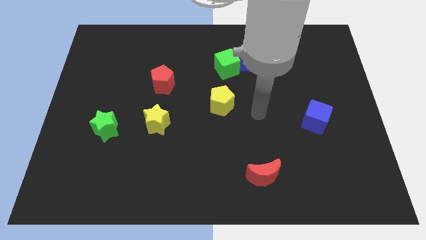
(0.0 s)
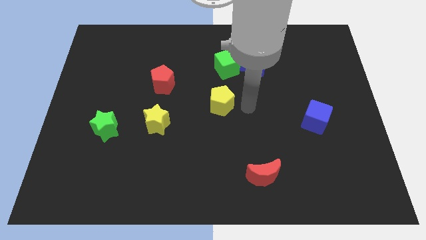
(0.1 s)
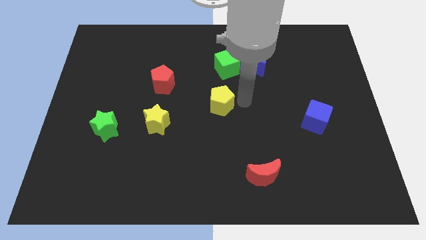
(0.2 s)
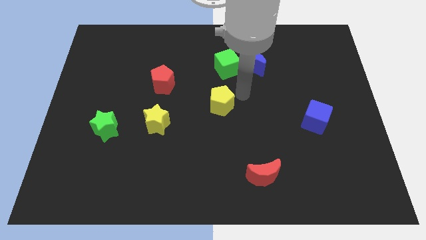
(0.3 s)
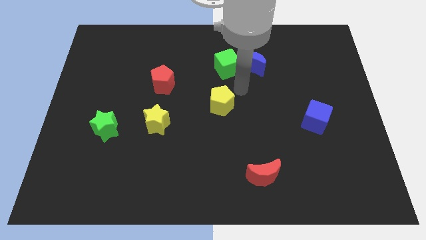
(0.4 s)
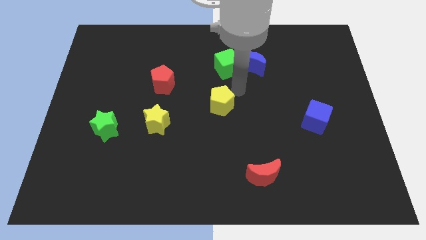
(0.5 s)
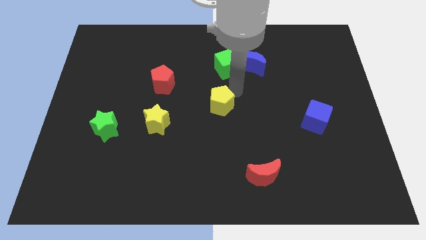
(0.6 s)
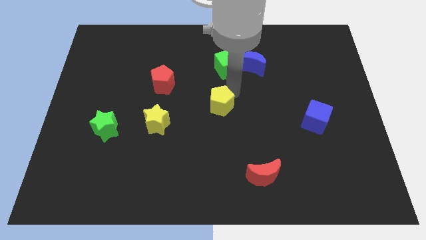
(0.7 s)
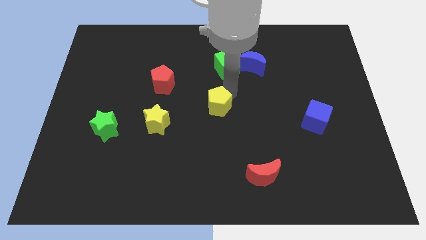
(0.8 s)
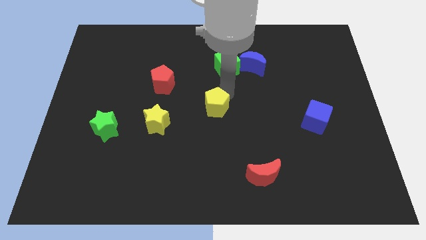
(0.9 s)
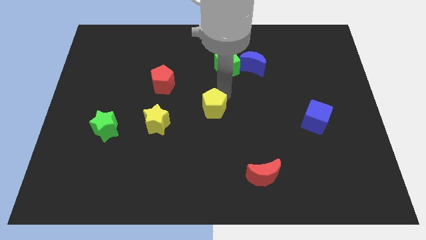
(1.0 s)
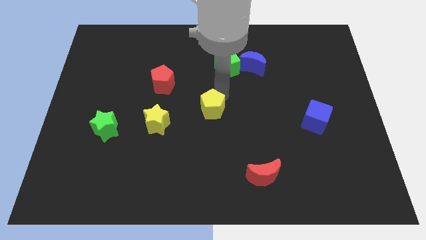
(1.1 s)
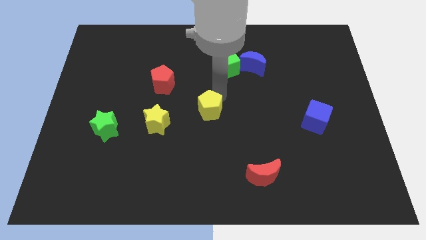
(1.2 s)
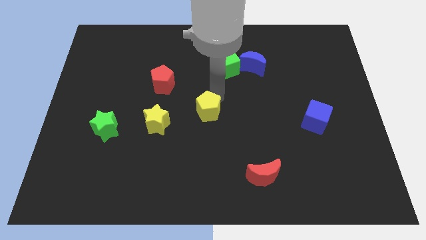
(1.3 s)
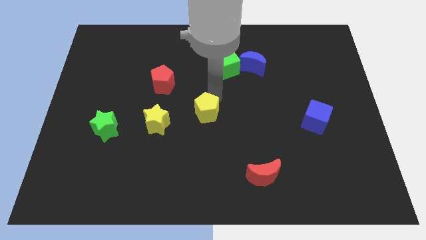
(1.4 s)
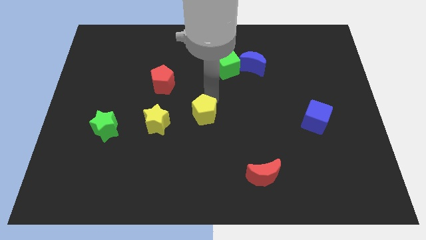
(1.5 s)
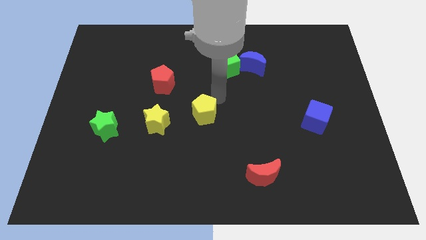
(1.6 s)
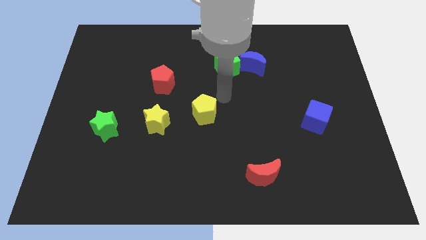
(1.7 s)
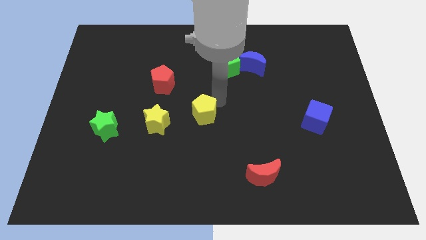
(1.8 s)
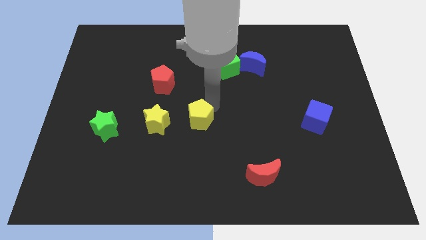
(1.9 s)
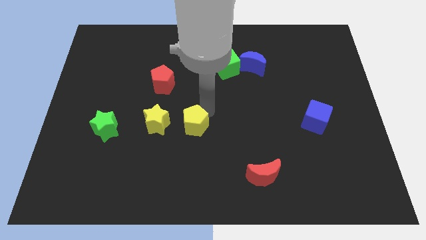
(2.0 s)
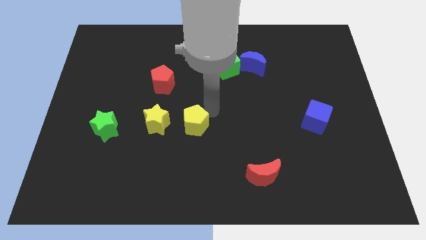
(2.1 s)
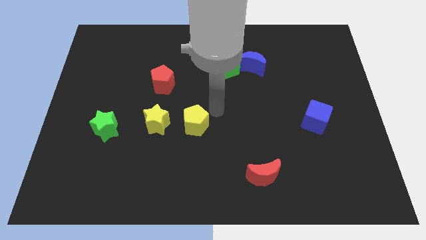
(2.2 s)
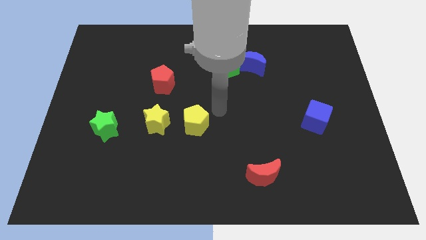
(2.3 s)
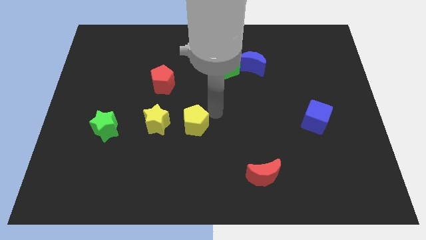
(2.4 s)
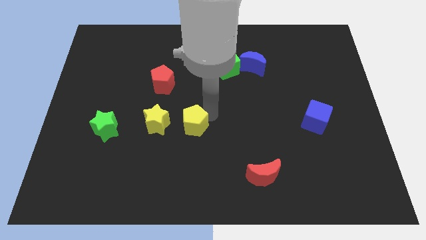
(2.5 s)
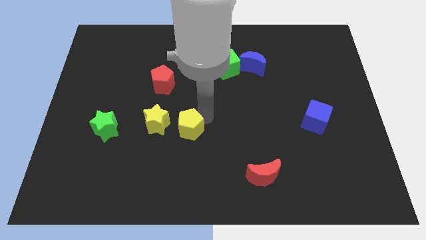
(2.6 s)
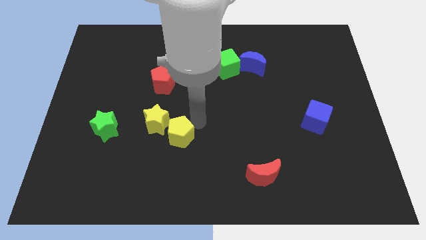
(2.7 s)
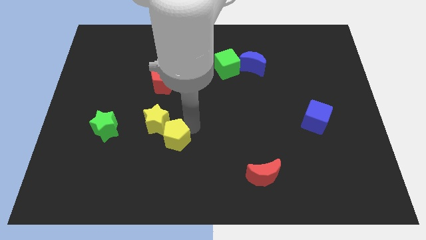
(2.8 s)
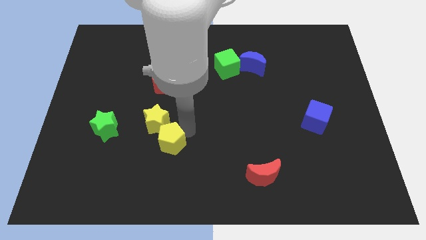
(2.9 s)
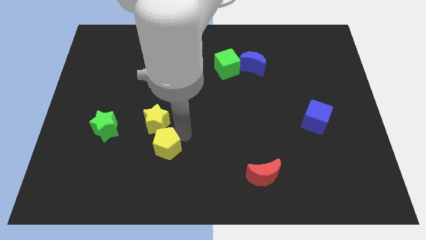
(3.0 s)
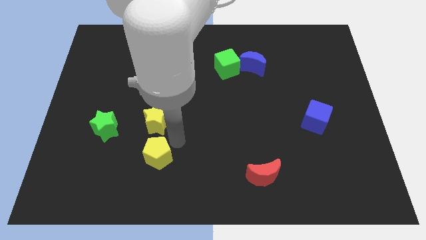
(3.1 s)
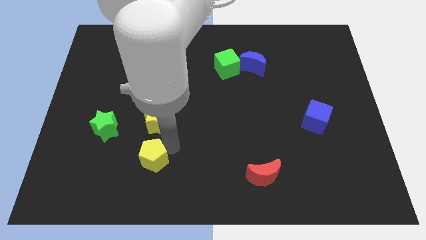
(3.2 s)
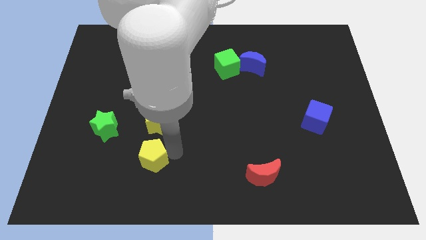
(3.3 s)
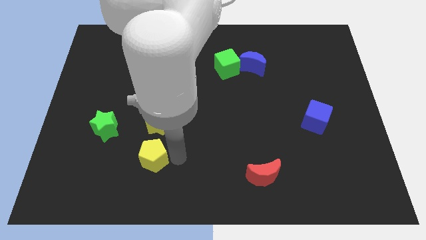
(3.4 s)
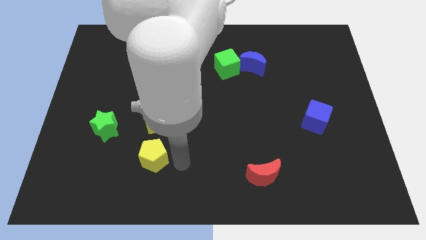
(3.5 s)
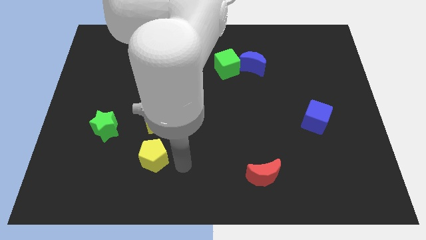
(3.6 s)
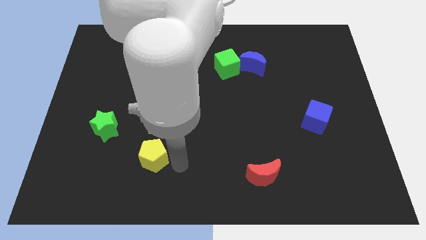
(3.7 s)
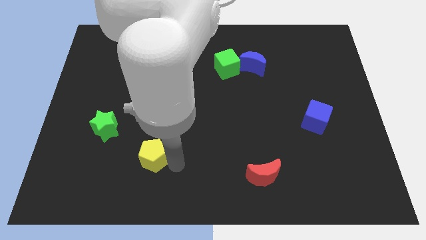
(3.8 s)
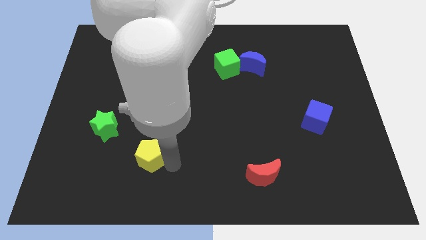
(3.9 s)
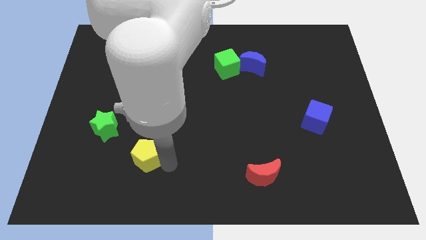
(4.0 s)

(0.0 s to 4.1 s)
put the yellow pentagon diagonally down and to the right of the green star

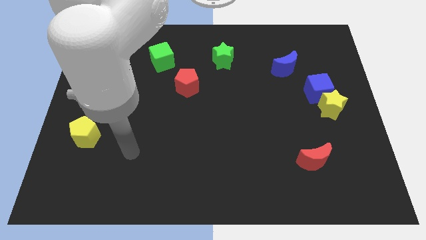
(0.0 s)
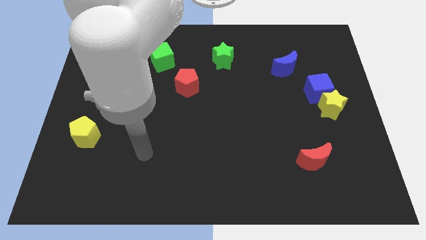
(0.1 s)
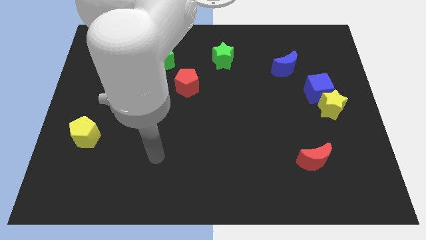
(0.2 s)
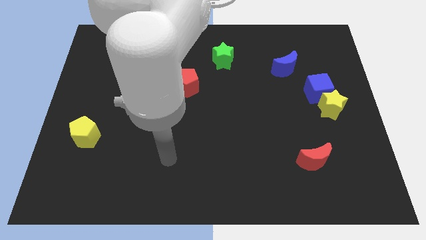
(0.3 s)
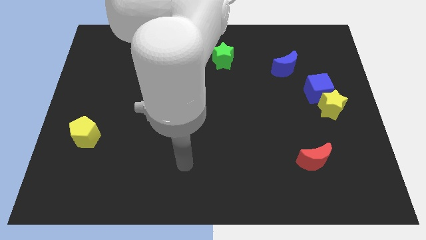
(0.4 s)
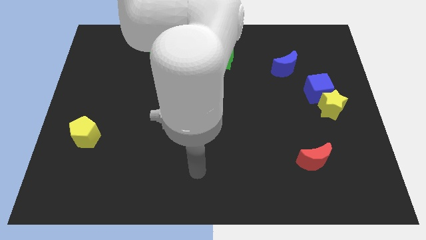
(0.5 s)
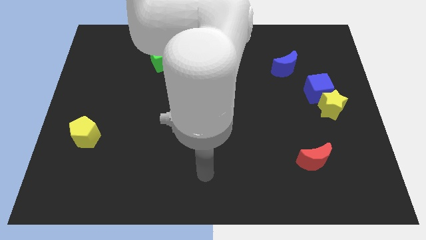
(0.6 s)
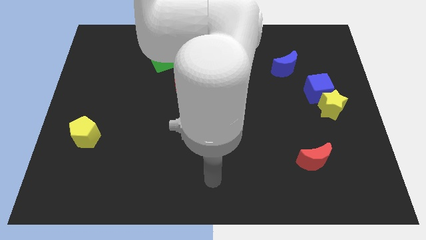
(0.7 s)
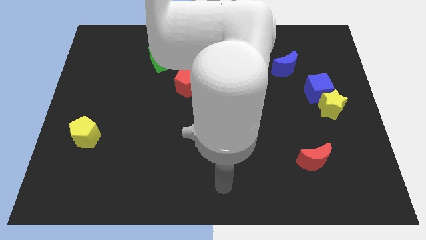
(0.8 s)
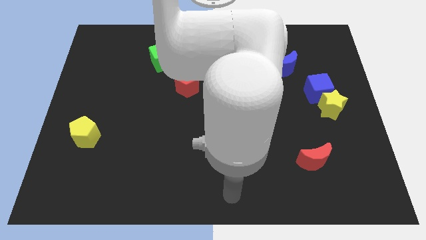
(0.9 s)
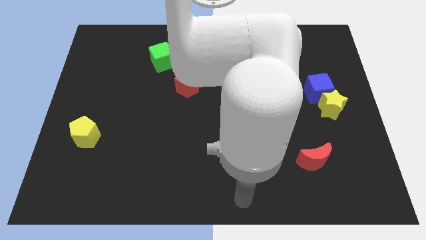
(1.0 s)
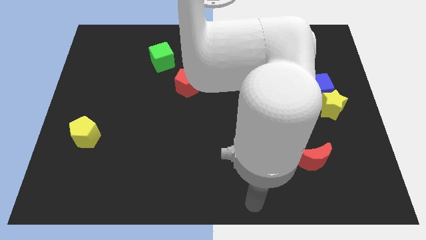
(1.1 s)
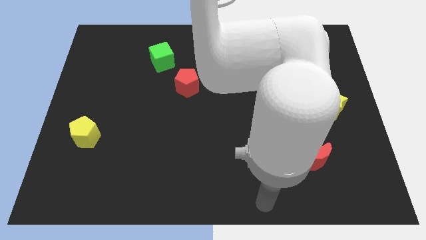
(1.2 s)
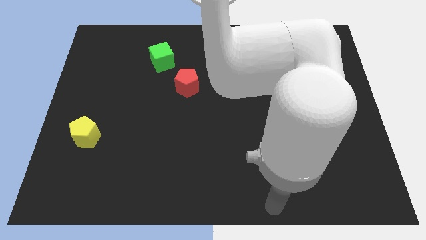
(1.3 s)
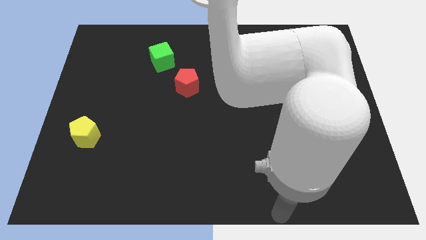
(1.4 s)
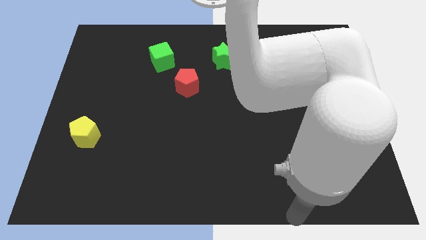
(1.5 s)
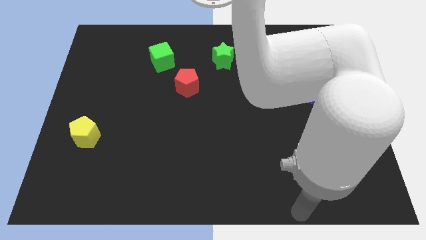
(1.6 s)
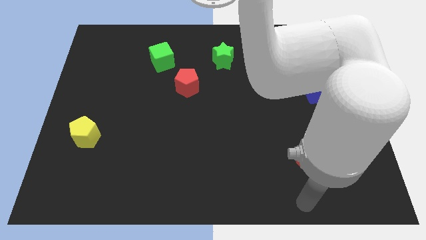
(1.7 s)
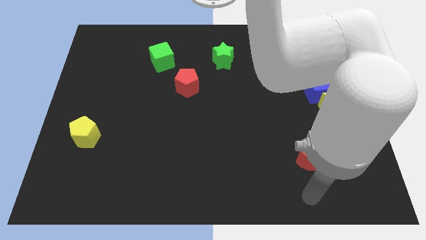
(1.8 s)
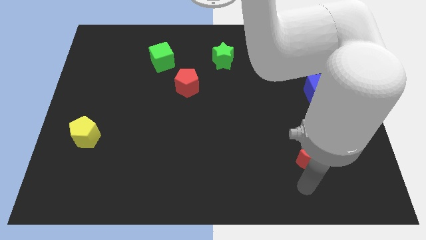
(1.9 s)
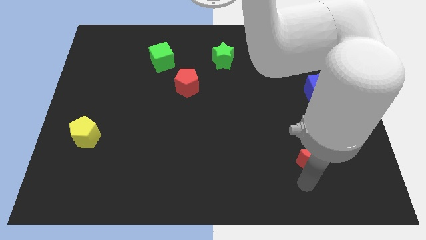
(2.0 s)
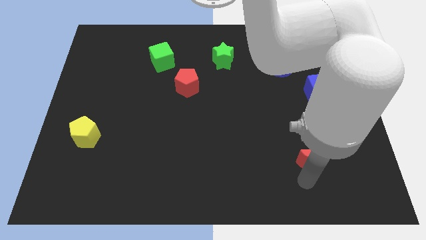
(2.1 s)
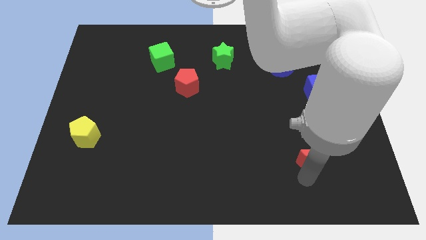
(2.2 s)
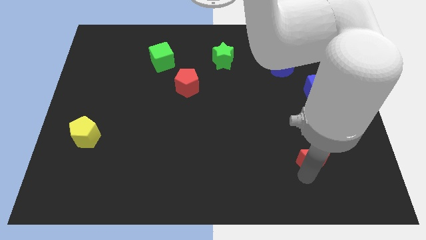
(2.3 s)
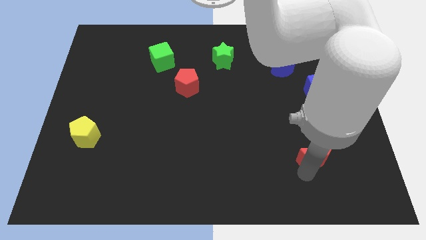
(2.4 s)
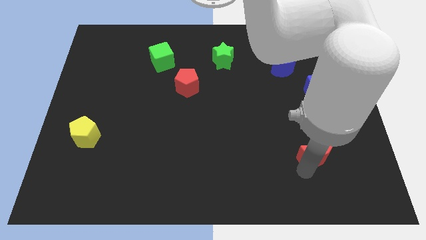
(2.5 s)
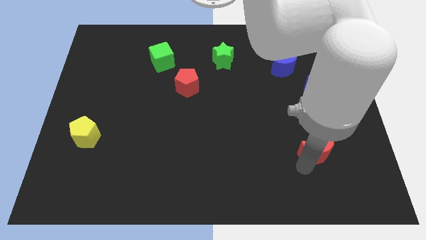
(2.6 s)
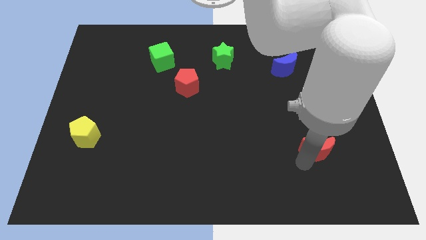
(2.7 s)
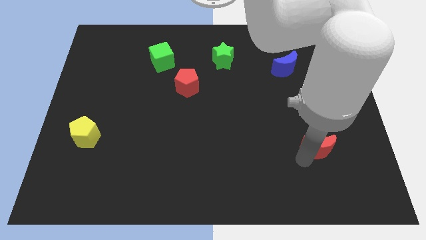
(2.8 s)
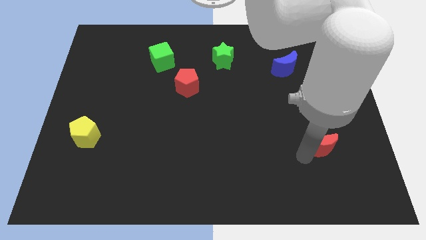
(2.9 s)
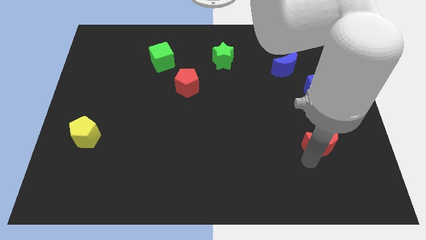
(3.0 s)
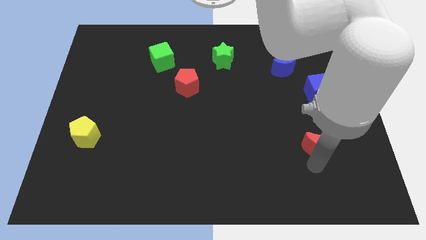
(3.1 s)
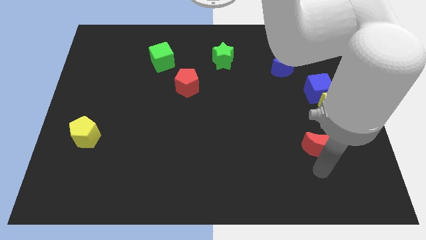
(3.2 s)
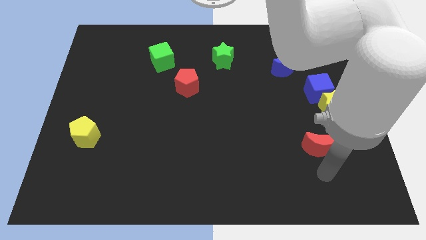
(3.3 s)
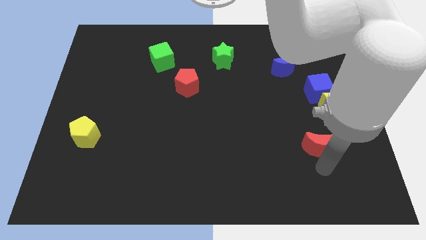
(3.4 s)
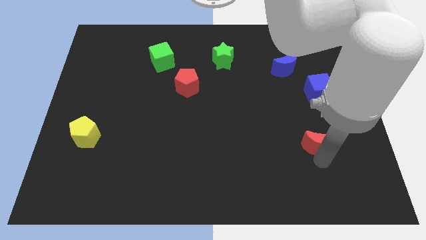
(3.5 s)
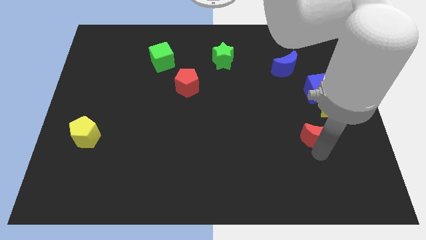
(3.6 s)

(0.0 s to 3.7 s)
push the red moon to the bottom left side of the yellow star
